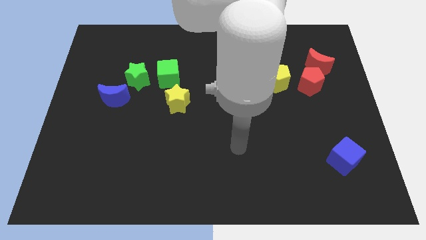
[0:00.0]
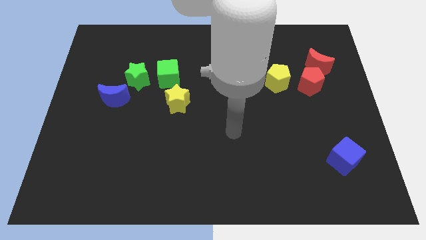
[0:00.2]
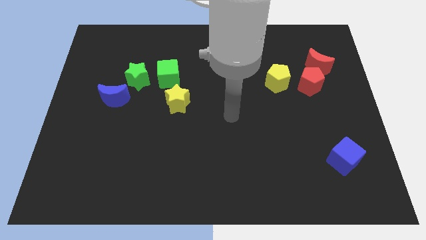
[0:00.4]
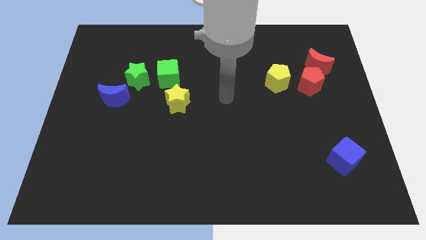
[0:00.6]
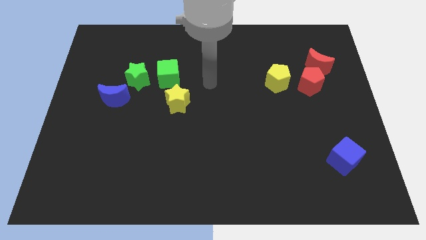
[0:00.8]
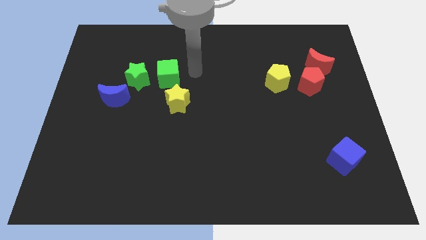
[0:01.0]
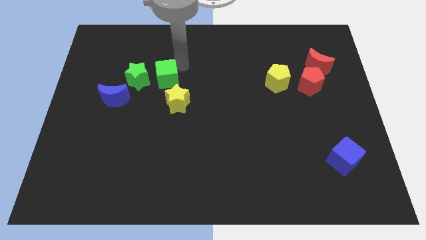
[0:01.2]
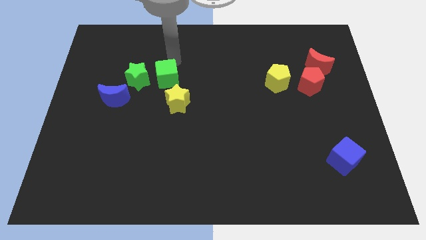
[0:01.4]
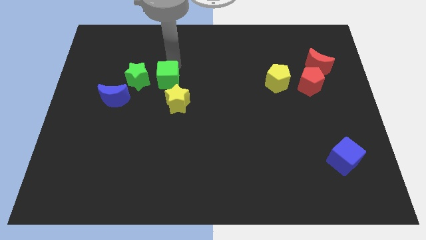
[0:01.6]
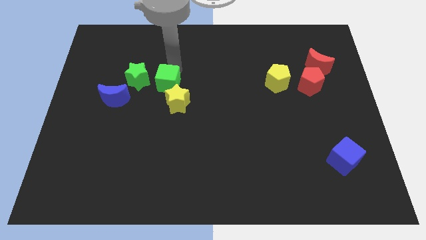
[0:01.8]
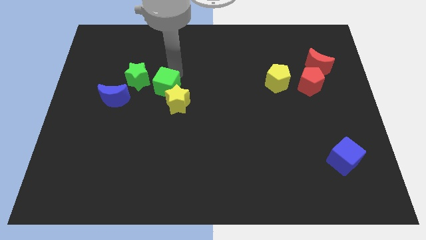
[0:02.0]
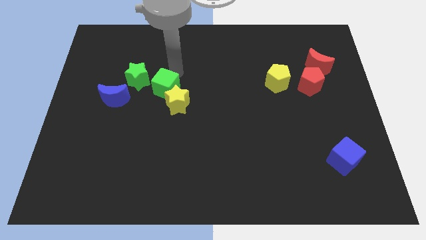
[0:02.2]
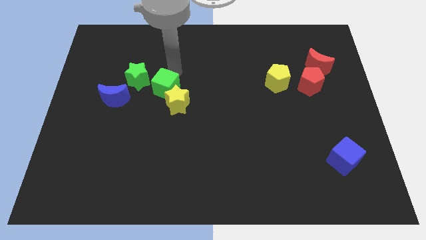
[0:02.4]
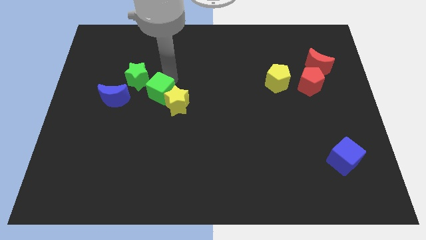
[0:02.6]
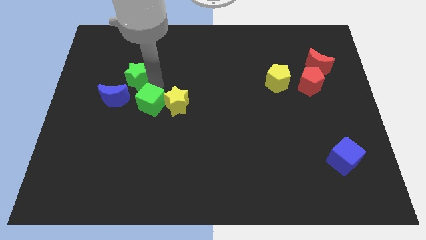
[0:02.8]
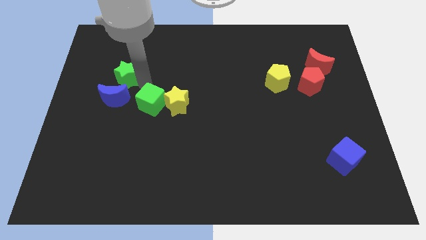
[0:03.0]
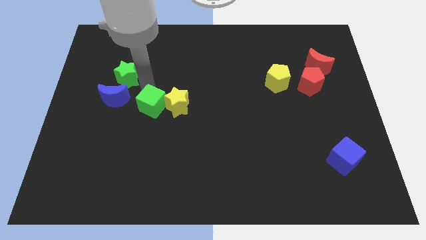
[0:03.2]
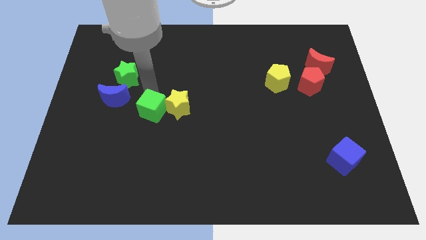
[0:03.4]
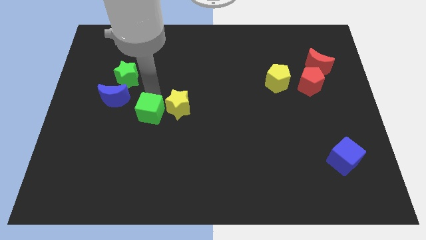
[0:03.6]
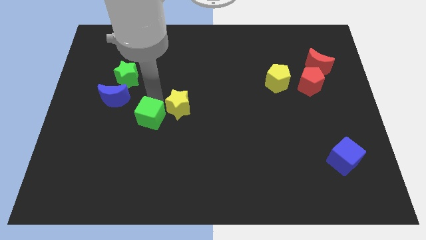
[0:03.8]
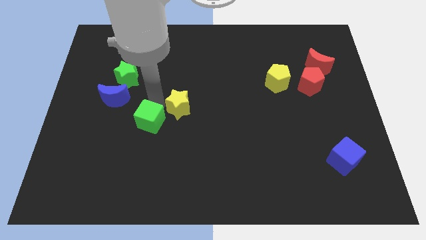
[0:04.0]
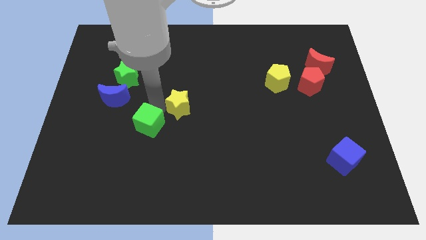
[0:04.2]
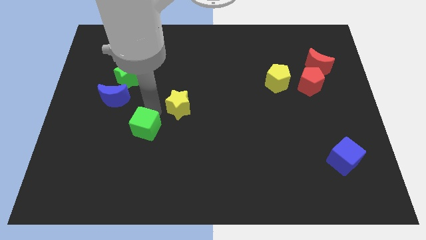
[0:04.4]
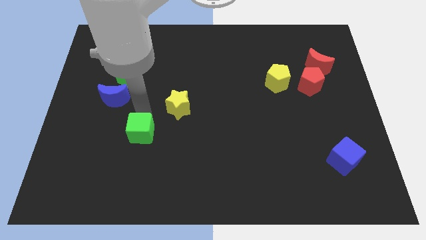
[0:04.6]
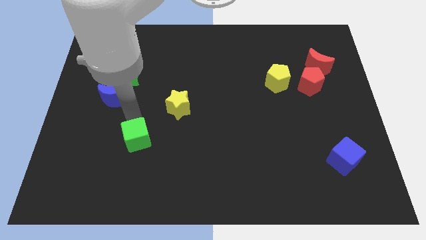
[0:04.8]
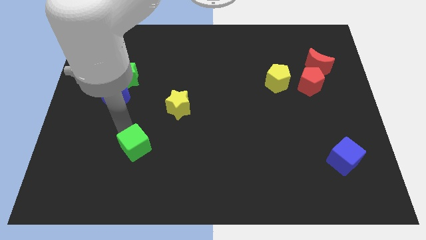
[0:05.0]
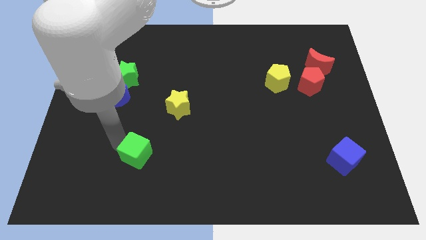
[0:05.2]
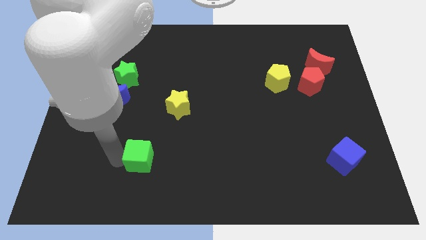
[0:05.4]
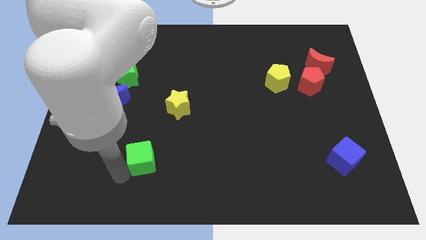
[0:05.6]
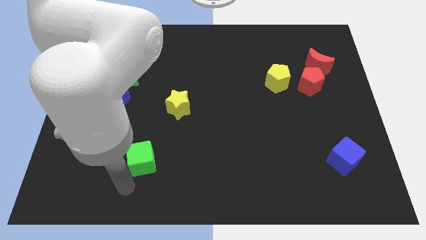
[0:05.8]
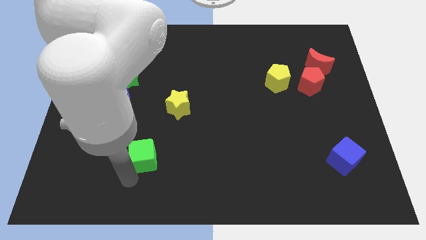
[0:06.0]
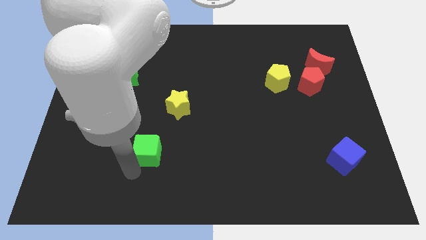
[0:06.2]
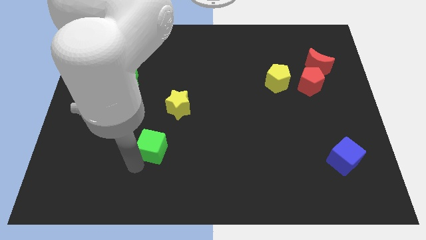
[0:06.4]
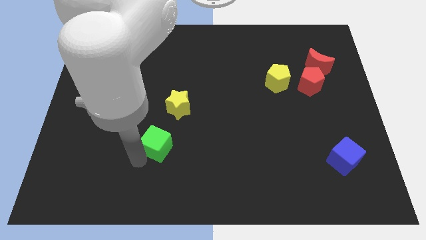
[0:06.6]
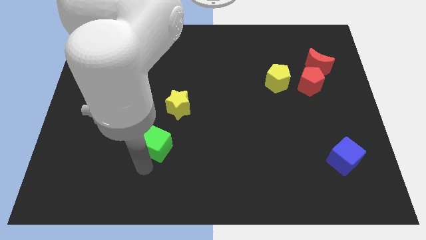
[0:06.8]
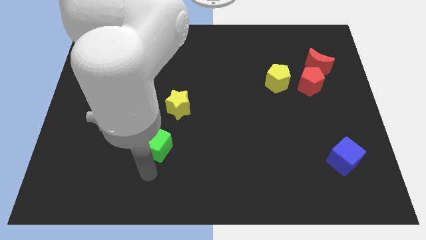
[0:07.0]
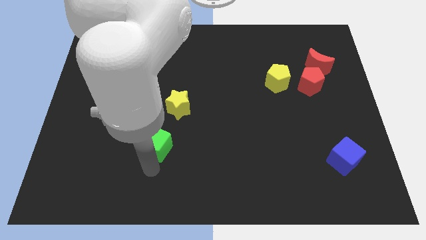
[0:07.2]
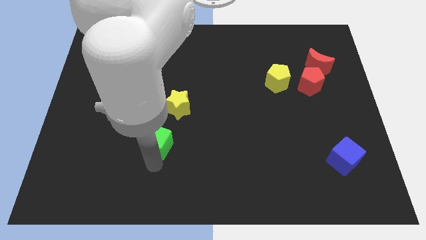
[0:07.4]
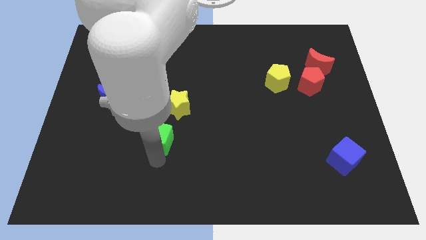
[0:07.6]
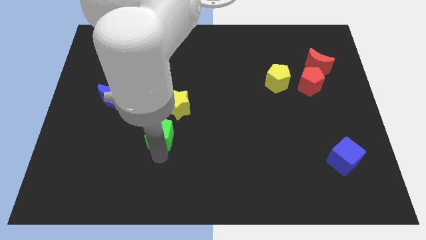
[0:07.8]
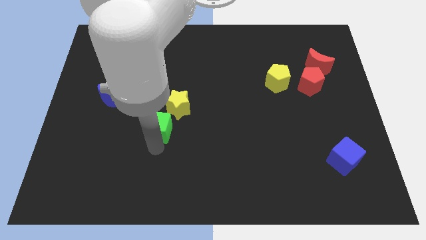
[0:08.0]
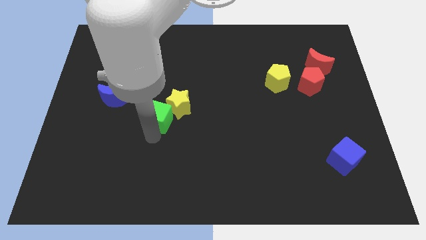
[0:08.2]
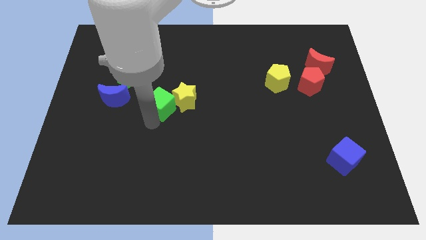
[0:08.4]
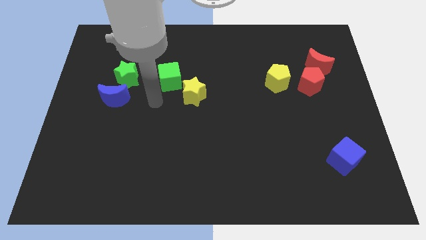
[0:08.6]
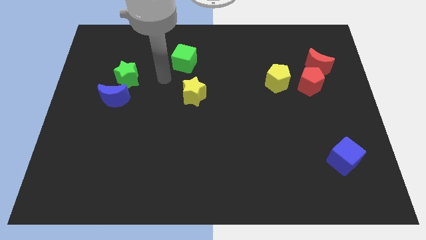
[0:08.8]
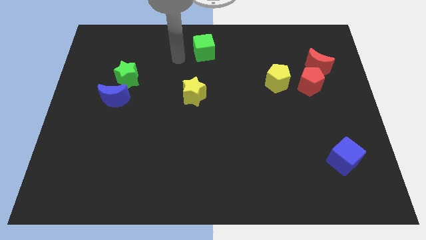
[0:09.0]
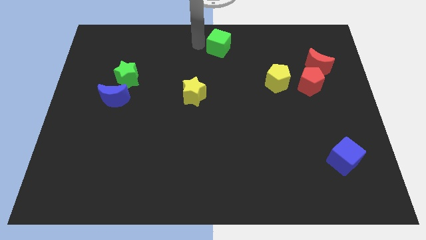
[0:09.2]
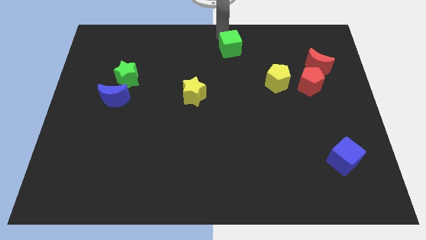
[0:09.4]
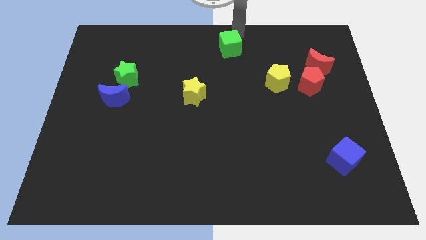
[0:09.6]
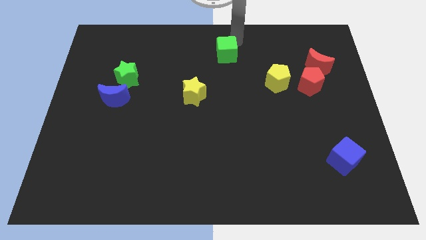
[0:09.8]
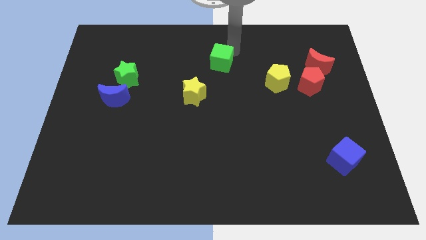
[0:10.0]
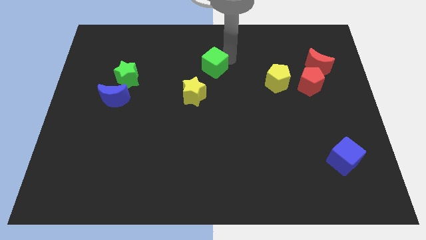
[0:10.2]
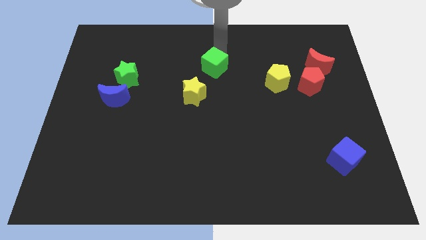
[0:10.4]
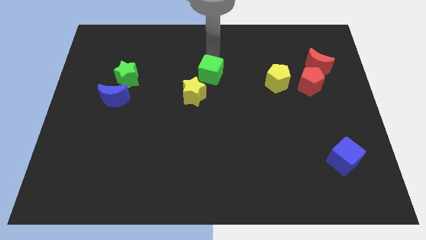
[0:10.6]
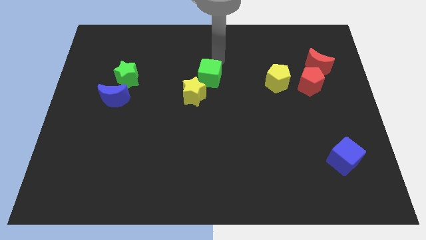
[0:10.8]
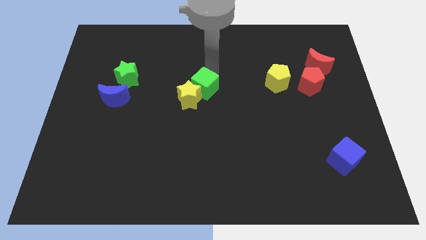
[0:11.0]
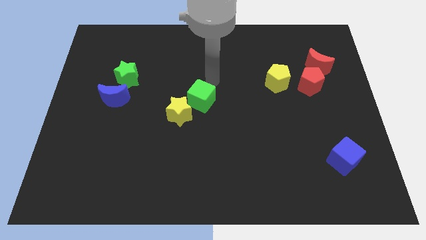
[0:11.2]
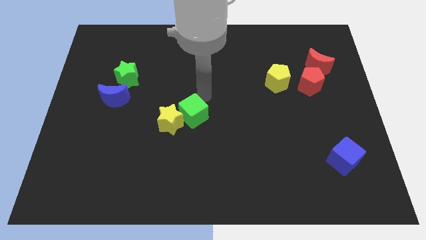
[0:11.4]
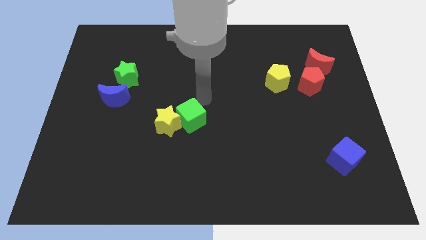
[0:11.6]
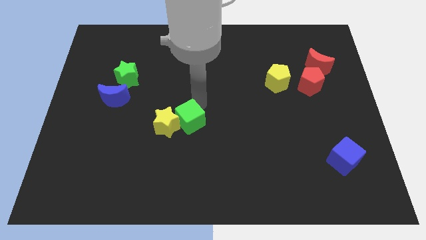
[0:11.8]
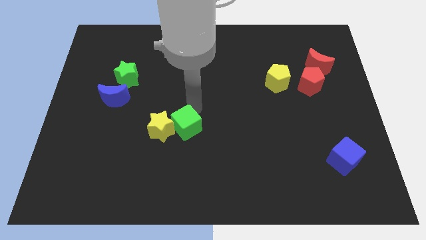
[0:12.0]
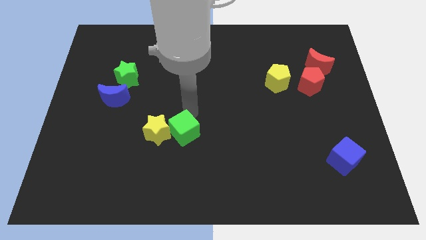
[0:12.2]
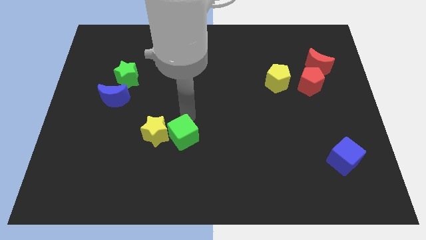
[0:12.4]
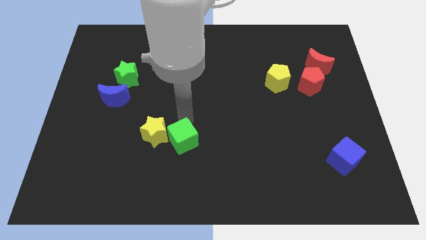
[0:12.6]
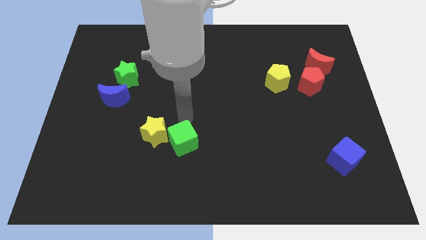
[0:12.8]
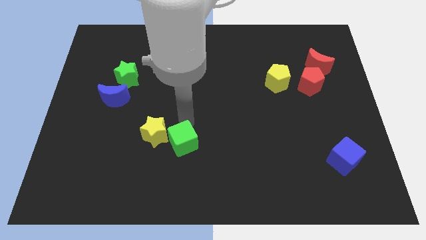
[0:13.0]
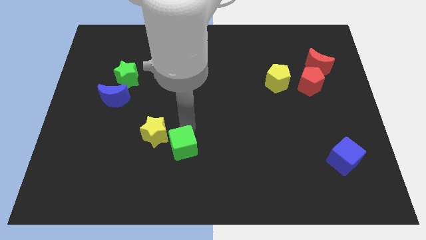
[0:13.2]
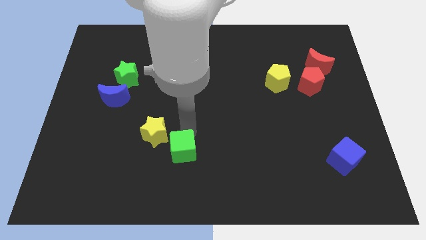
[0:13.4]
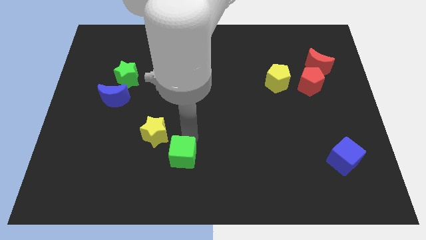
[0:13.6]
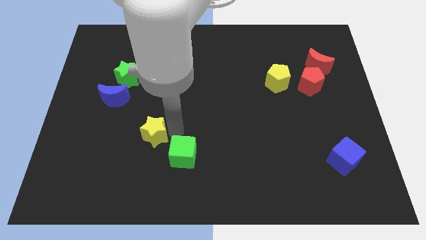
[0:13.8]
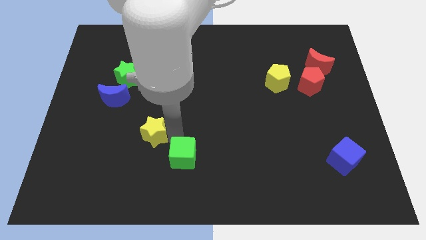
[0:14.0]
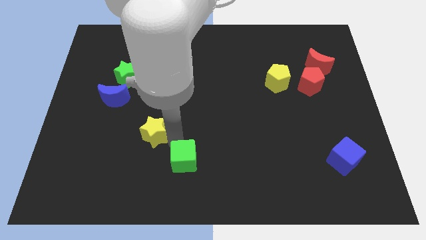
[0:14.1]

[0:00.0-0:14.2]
slide the green cube to the bottom side
